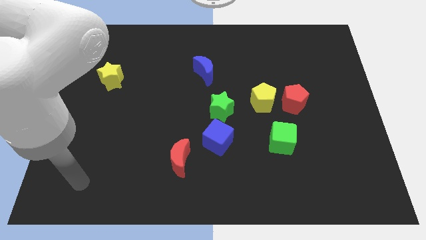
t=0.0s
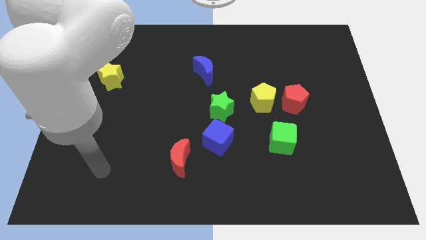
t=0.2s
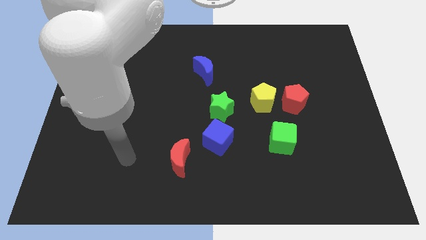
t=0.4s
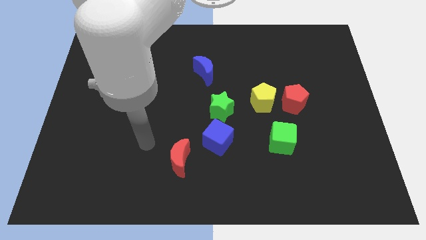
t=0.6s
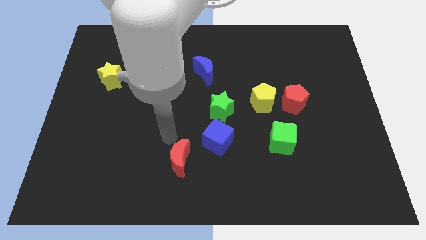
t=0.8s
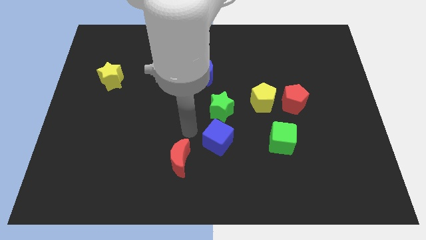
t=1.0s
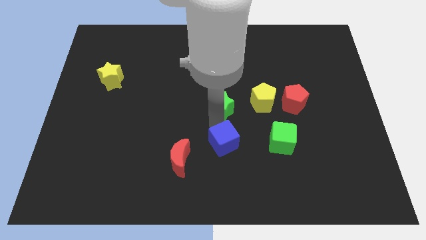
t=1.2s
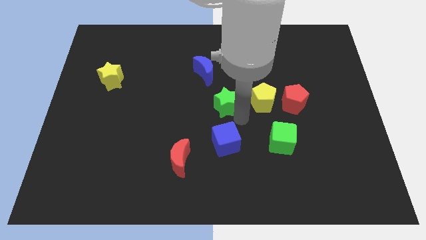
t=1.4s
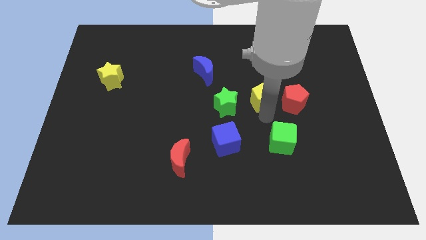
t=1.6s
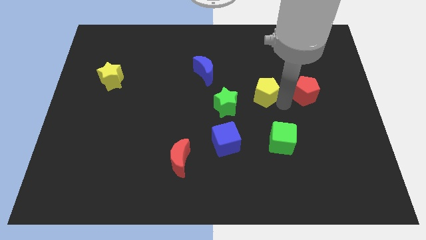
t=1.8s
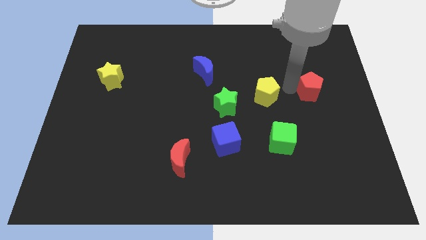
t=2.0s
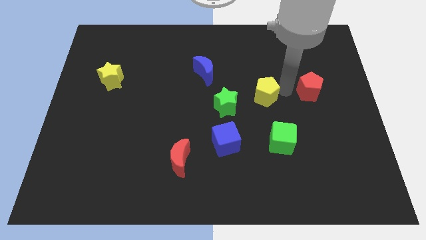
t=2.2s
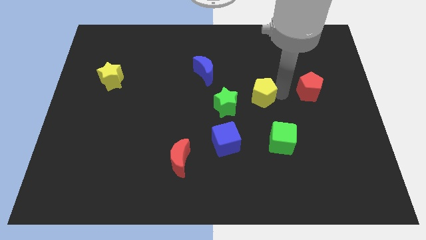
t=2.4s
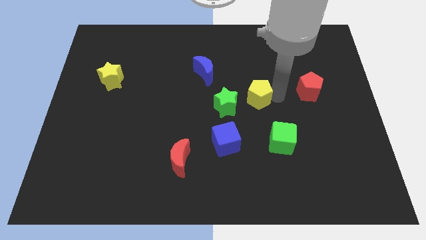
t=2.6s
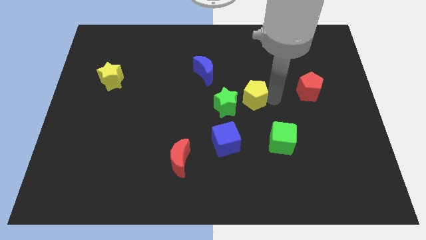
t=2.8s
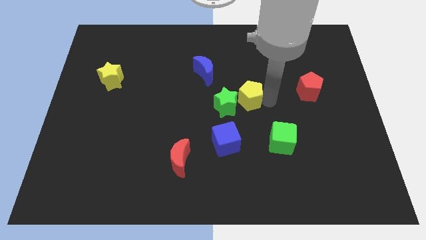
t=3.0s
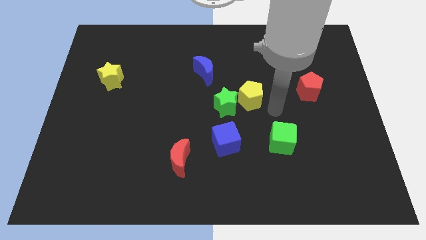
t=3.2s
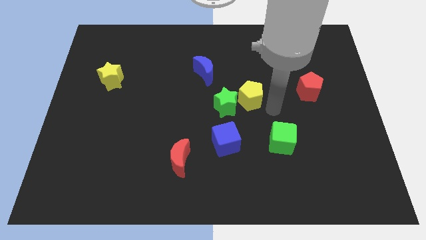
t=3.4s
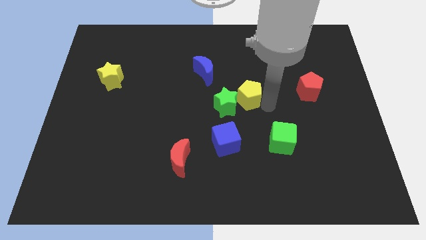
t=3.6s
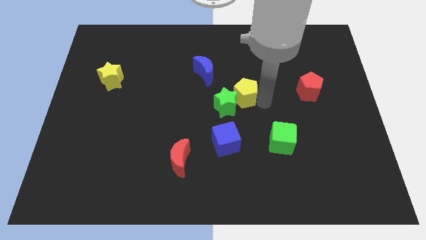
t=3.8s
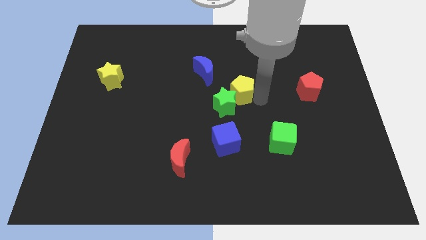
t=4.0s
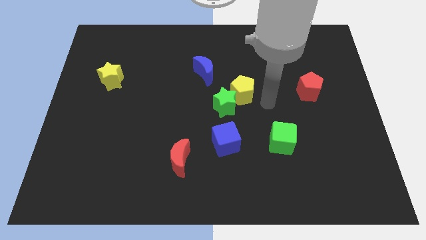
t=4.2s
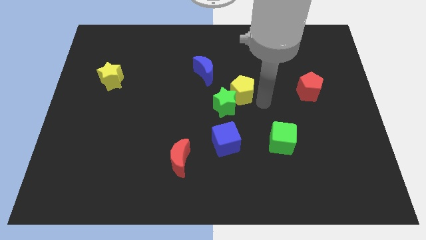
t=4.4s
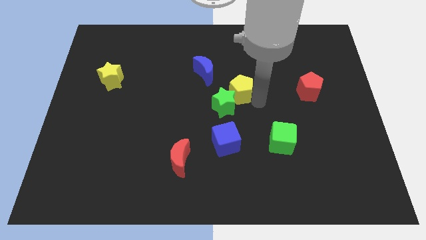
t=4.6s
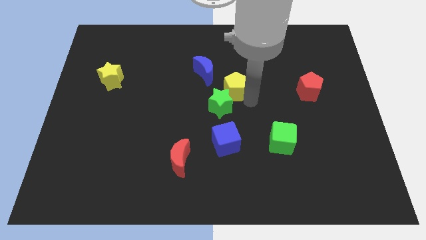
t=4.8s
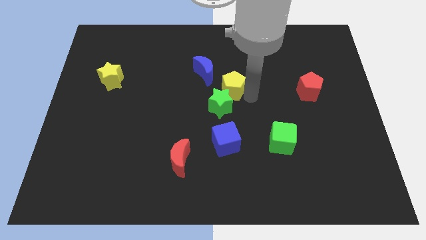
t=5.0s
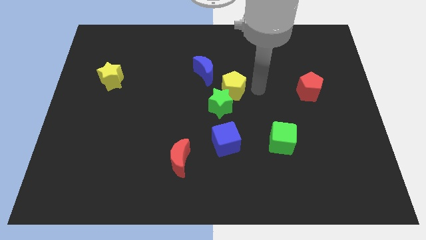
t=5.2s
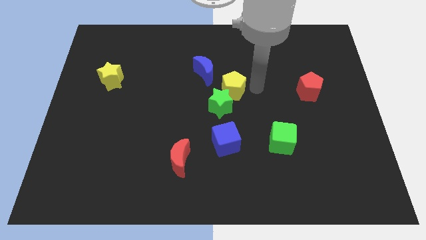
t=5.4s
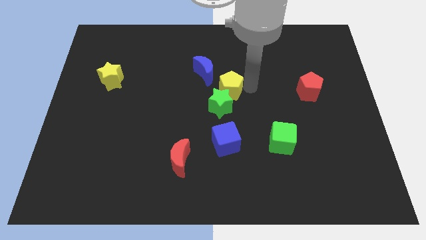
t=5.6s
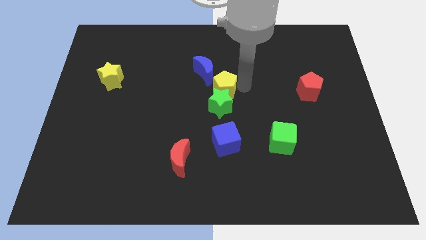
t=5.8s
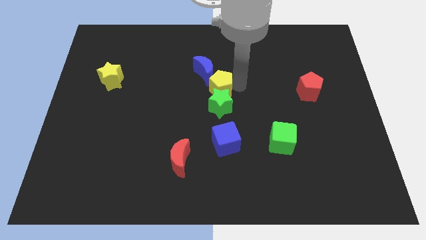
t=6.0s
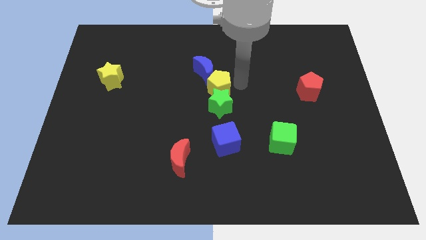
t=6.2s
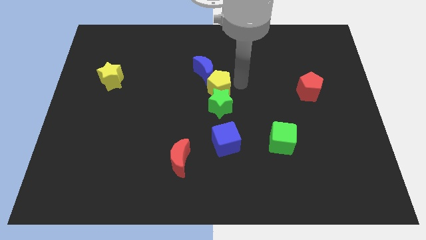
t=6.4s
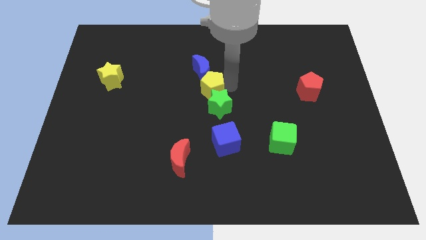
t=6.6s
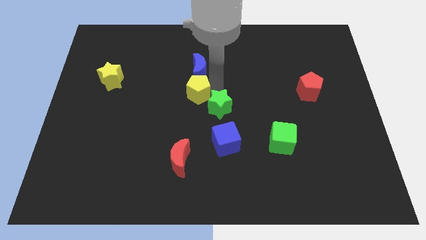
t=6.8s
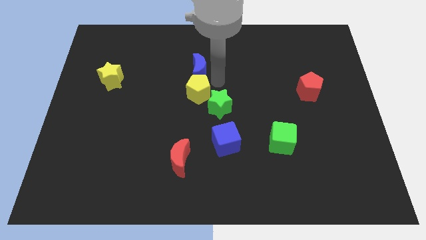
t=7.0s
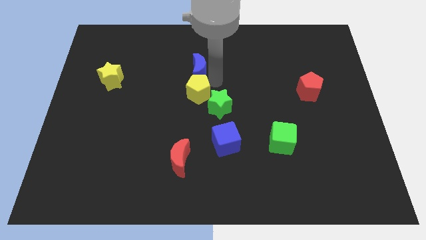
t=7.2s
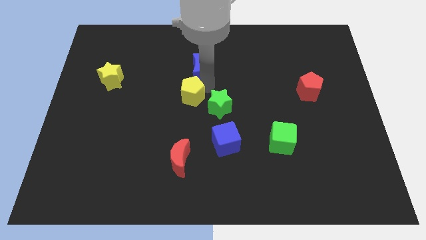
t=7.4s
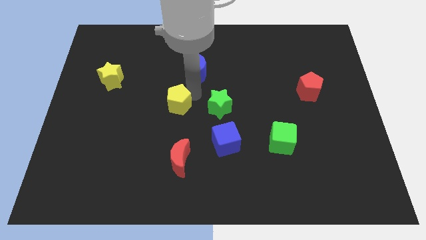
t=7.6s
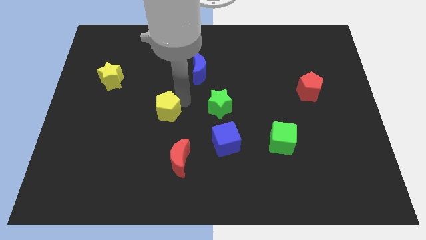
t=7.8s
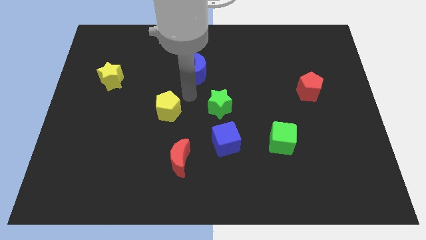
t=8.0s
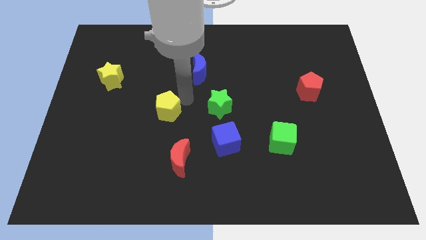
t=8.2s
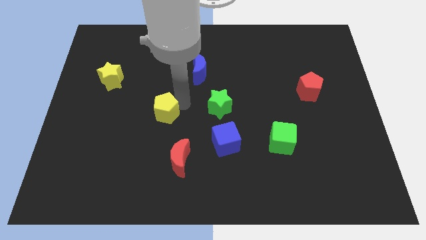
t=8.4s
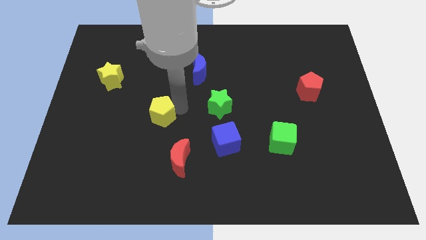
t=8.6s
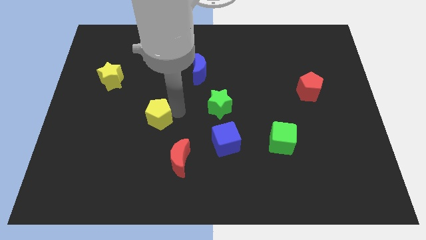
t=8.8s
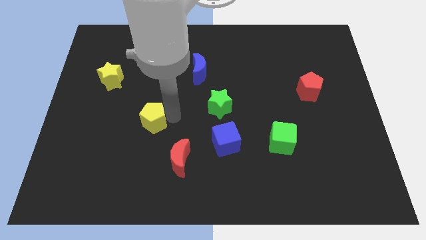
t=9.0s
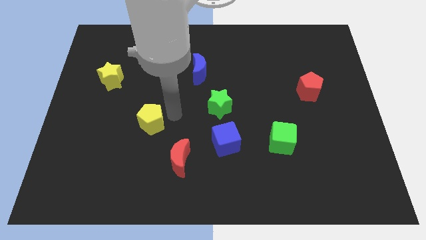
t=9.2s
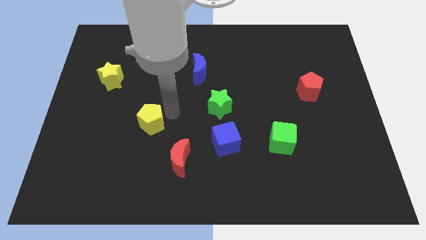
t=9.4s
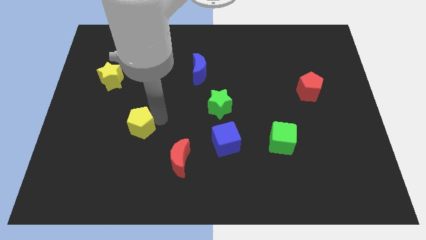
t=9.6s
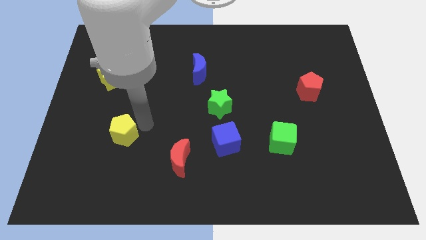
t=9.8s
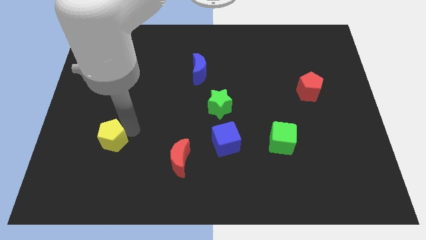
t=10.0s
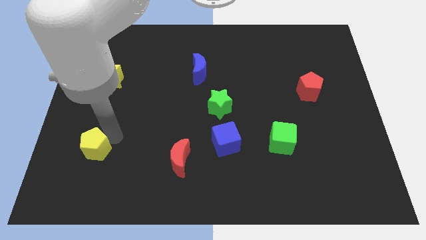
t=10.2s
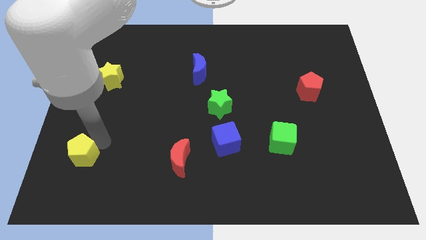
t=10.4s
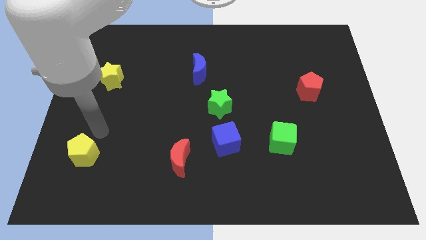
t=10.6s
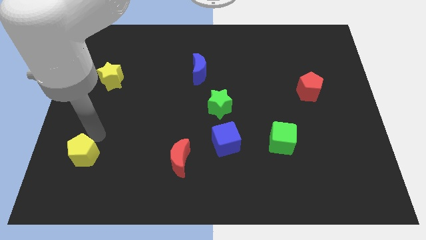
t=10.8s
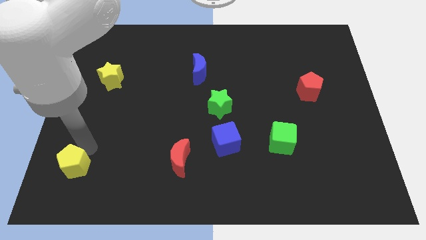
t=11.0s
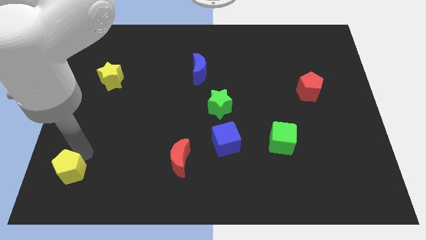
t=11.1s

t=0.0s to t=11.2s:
slide the yellow pentagon to the bottom left corner

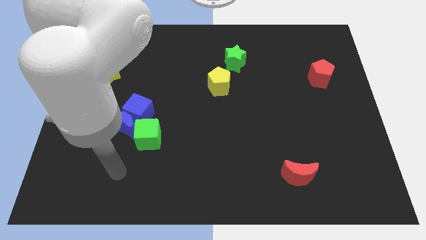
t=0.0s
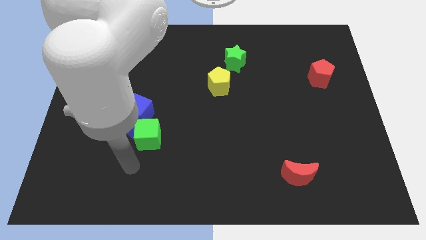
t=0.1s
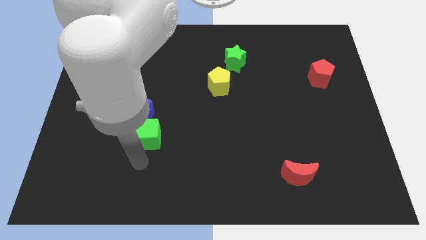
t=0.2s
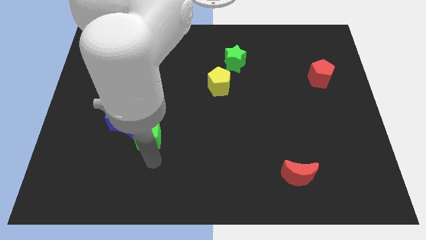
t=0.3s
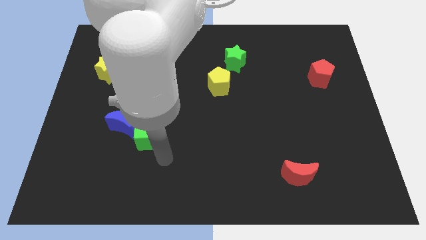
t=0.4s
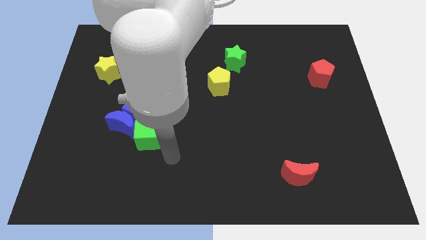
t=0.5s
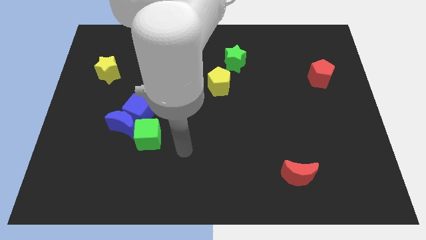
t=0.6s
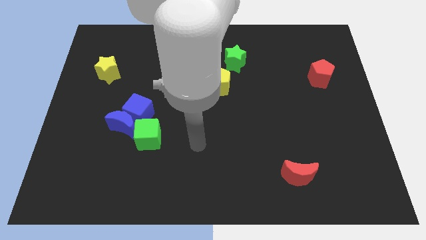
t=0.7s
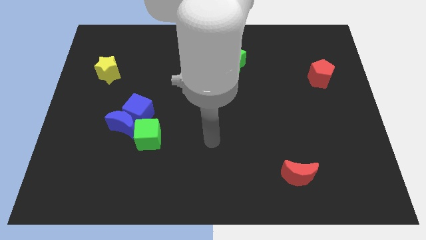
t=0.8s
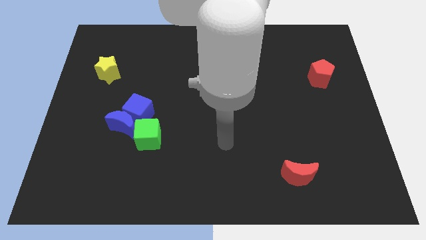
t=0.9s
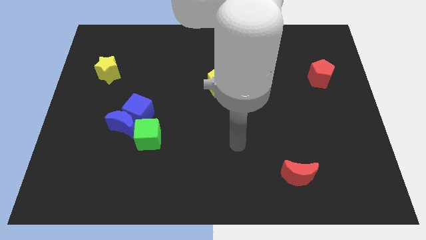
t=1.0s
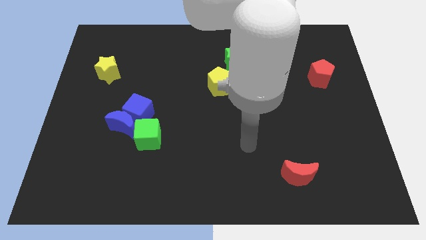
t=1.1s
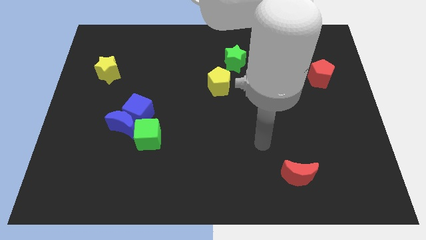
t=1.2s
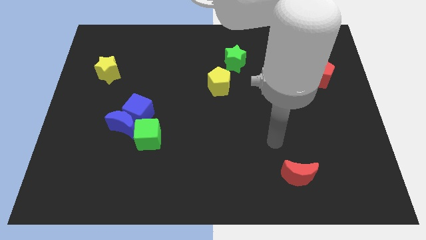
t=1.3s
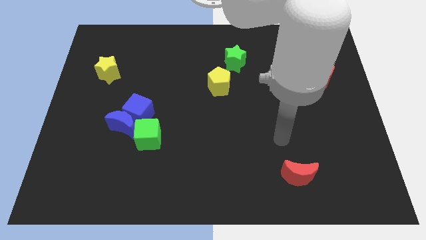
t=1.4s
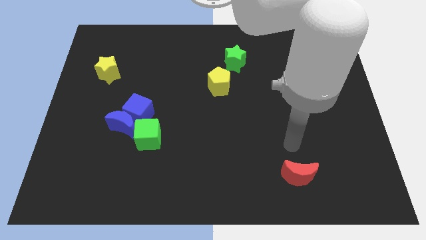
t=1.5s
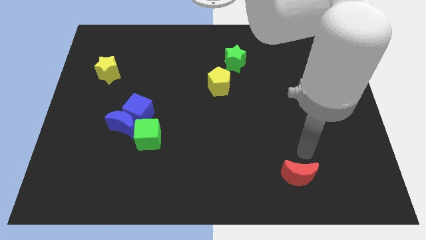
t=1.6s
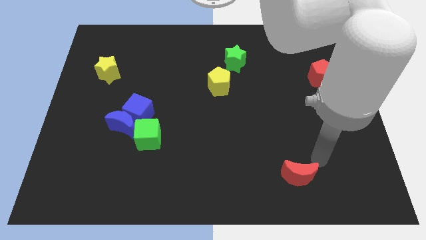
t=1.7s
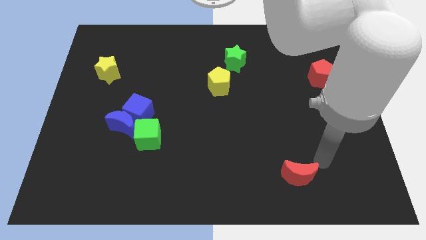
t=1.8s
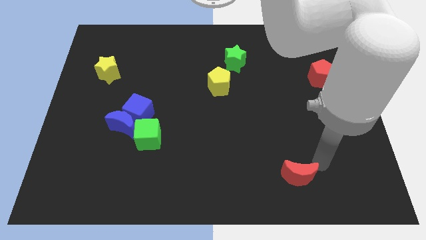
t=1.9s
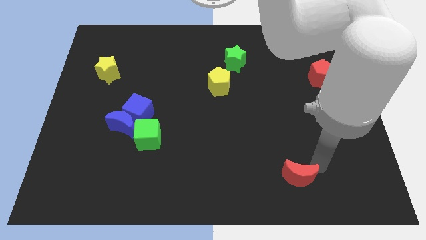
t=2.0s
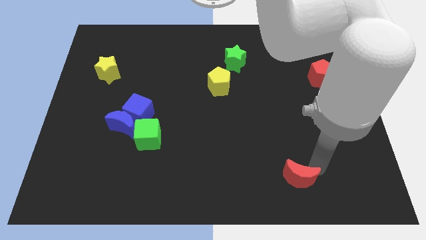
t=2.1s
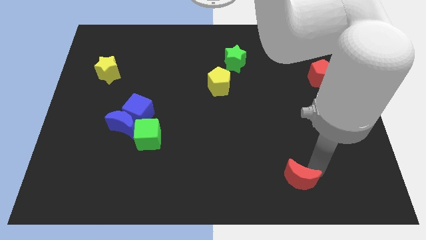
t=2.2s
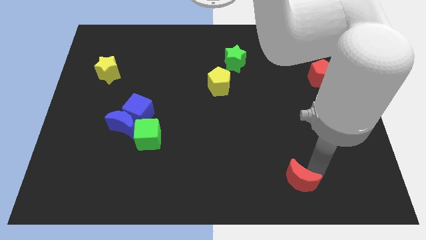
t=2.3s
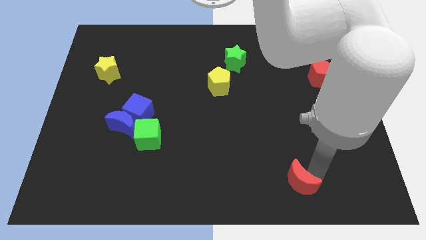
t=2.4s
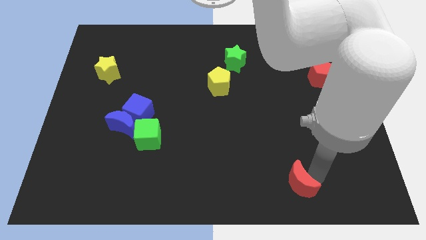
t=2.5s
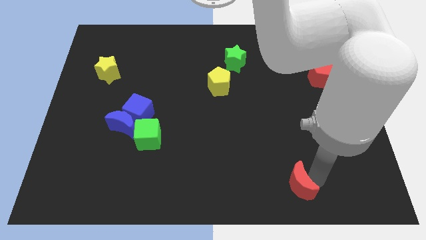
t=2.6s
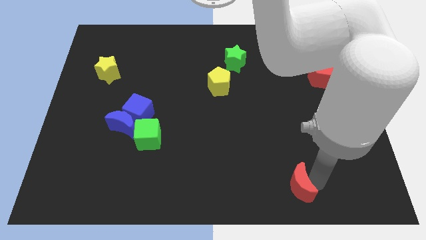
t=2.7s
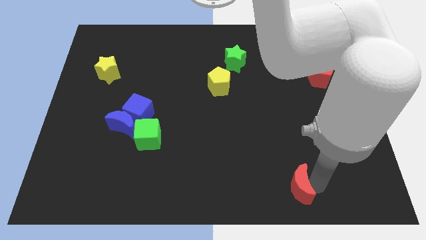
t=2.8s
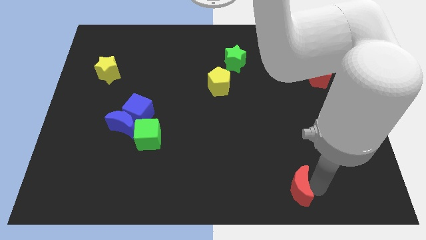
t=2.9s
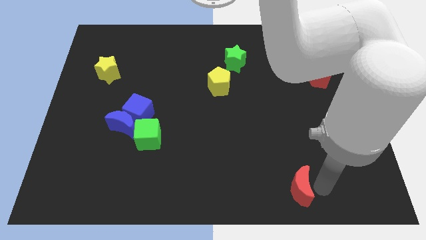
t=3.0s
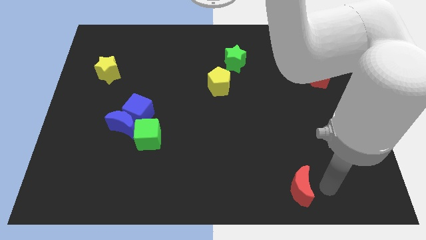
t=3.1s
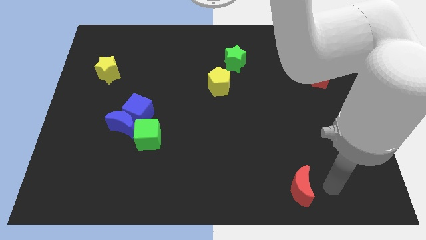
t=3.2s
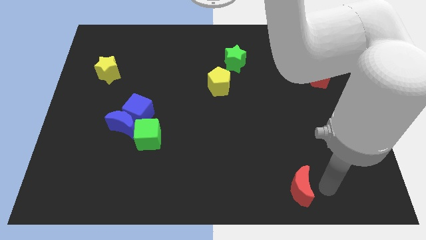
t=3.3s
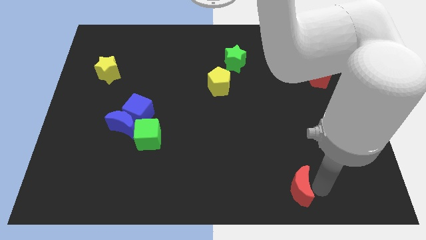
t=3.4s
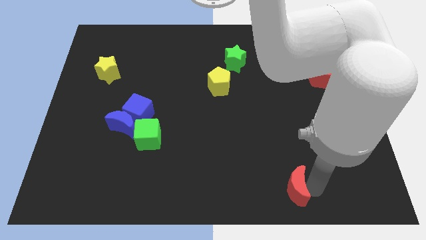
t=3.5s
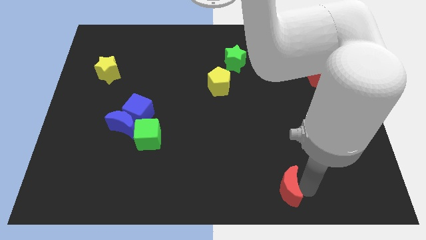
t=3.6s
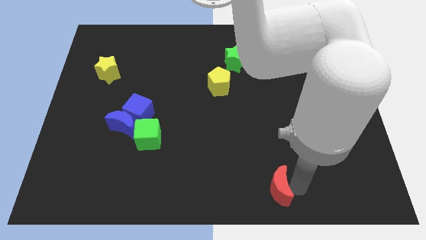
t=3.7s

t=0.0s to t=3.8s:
slide the red moon to the bottom side
